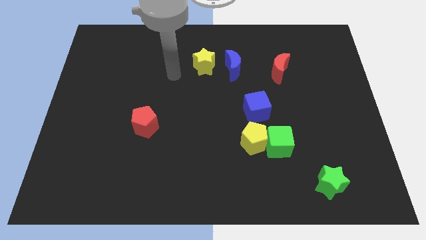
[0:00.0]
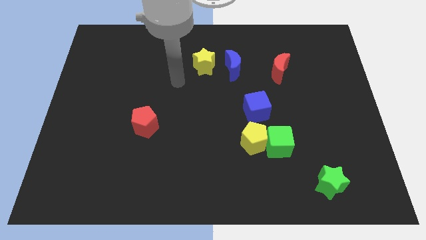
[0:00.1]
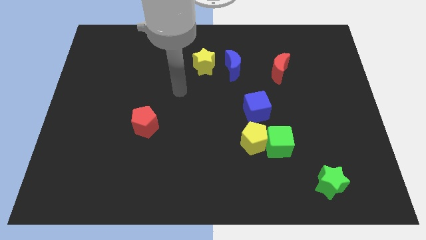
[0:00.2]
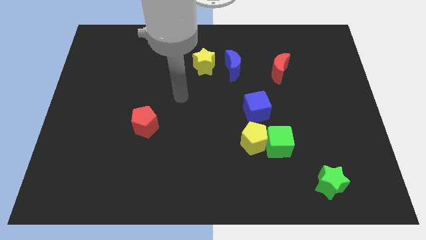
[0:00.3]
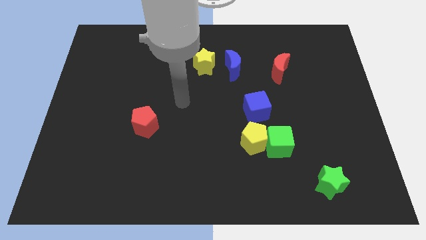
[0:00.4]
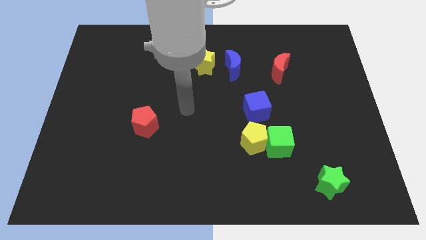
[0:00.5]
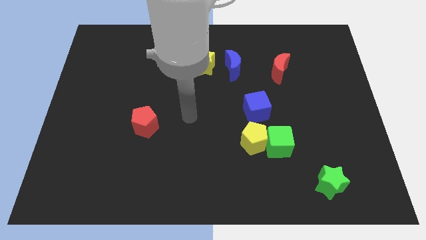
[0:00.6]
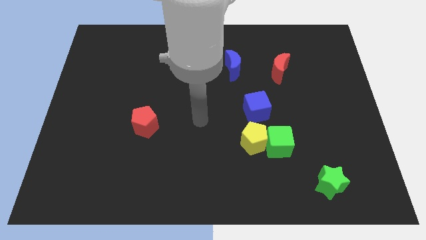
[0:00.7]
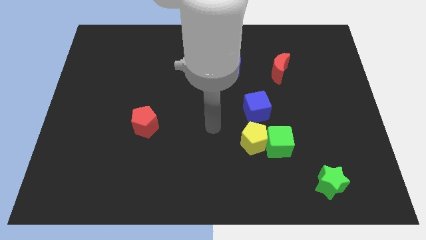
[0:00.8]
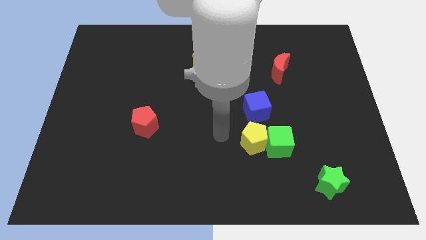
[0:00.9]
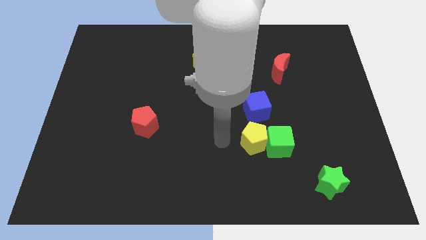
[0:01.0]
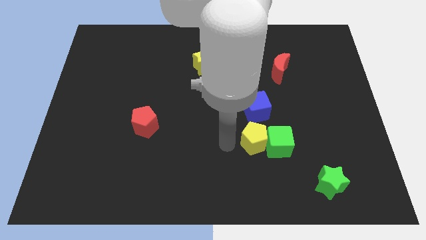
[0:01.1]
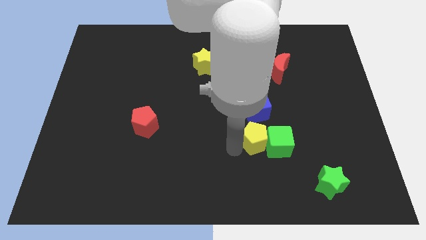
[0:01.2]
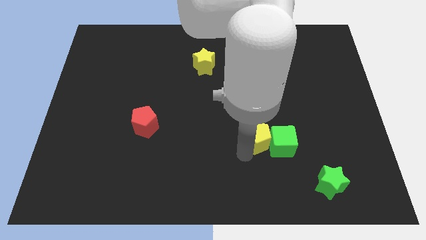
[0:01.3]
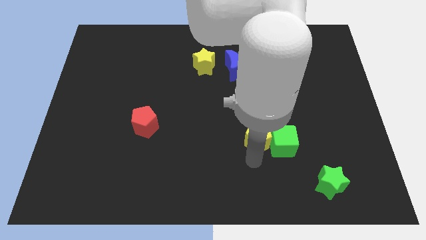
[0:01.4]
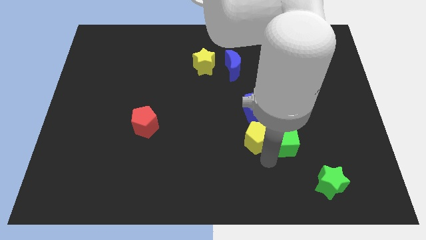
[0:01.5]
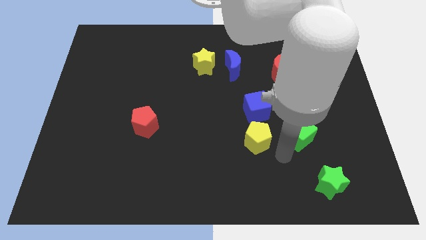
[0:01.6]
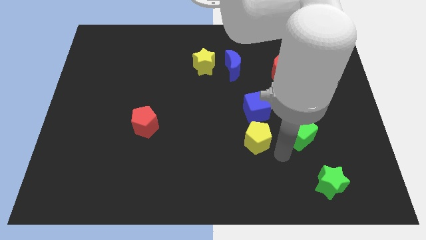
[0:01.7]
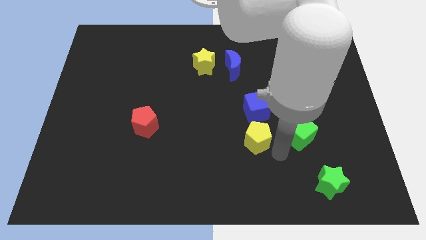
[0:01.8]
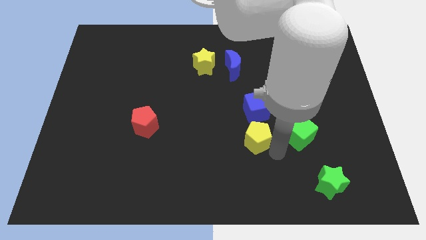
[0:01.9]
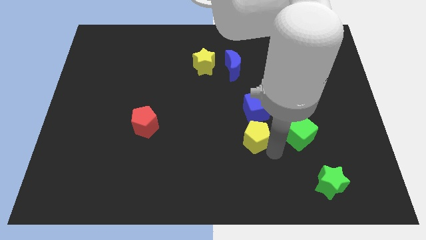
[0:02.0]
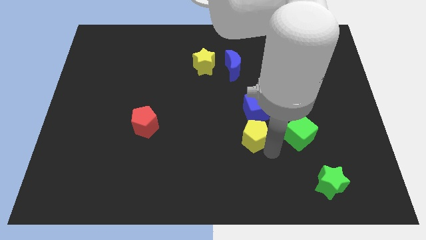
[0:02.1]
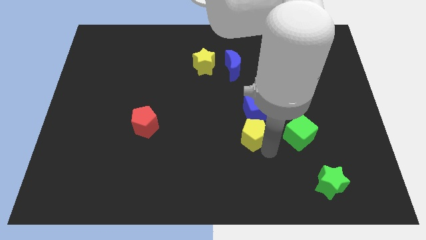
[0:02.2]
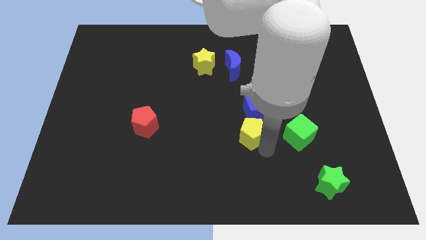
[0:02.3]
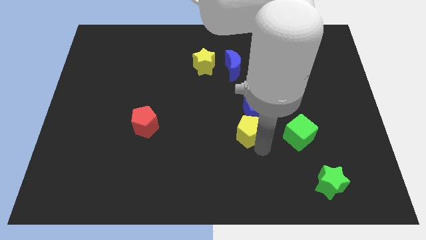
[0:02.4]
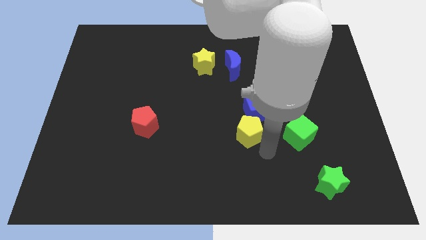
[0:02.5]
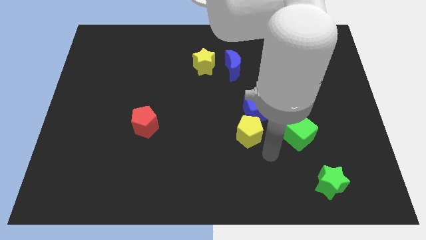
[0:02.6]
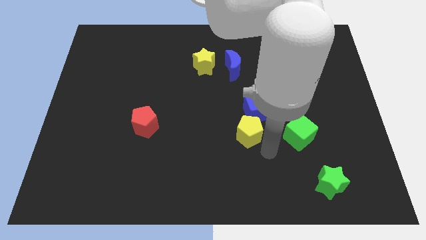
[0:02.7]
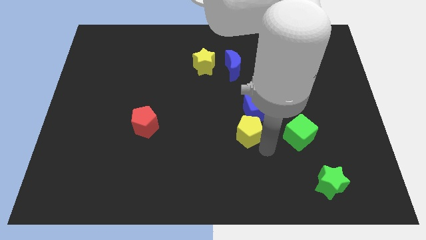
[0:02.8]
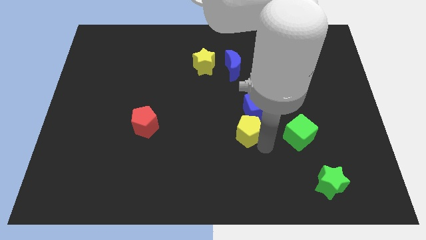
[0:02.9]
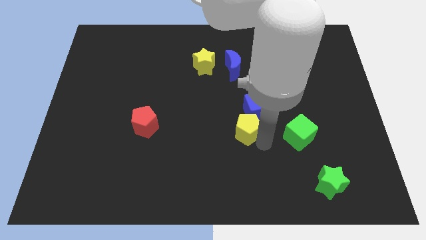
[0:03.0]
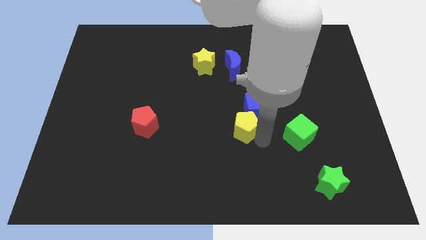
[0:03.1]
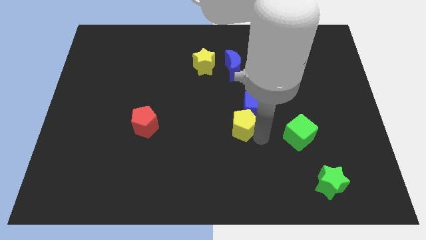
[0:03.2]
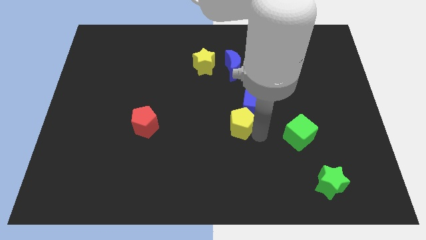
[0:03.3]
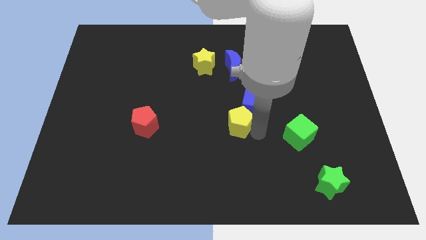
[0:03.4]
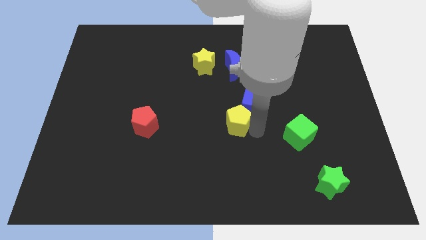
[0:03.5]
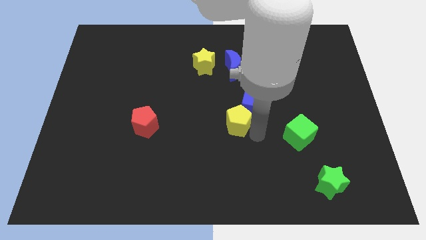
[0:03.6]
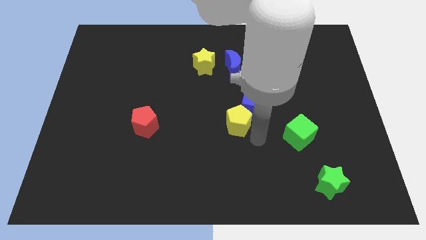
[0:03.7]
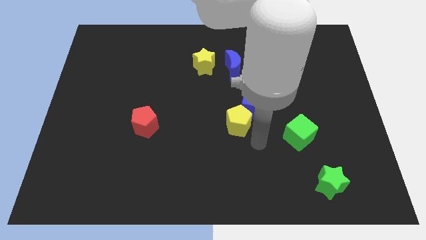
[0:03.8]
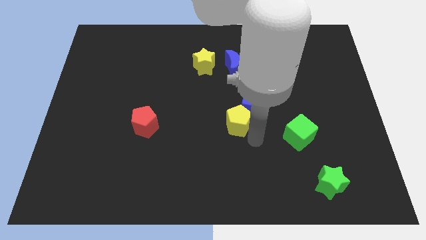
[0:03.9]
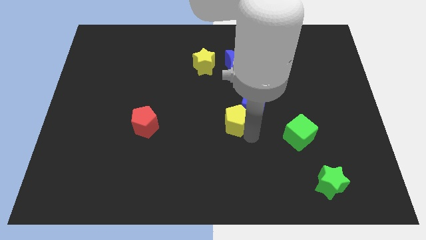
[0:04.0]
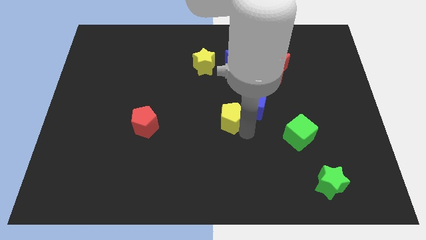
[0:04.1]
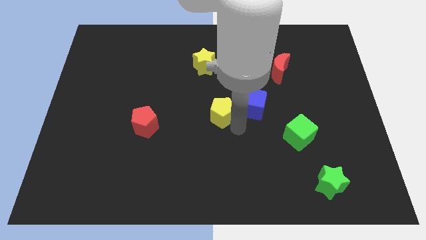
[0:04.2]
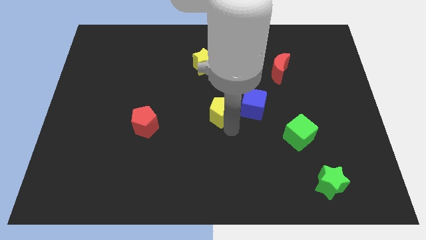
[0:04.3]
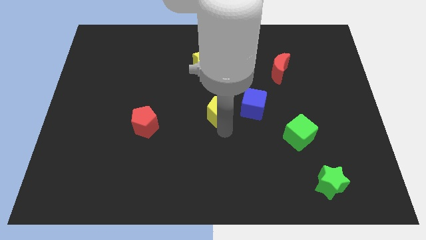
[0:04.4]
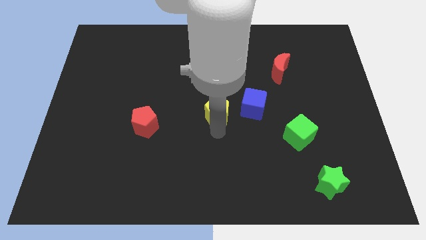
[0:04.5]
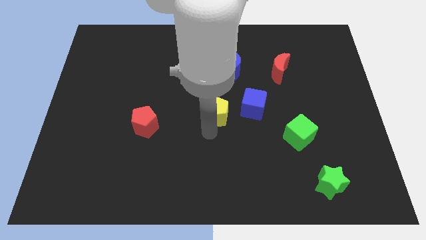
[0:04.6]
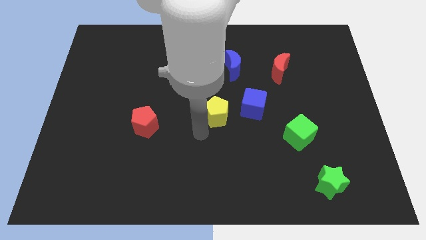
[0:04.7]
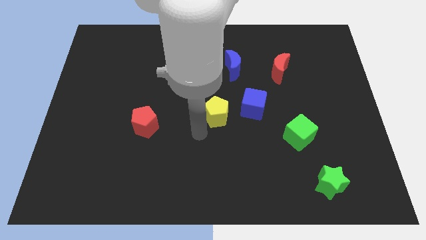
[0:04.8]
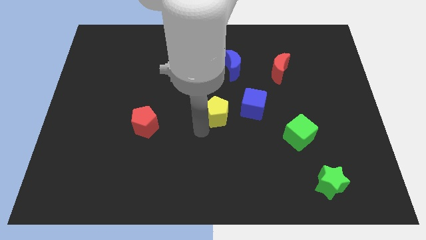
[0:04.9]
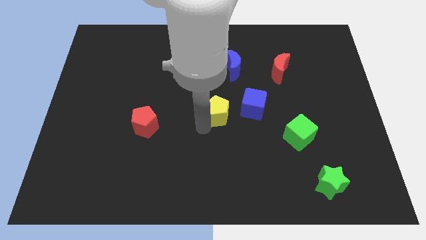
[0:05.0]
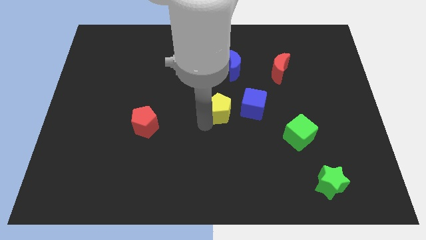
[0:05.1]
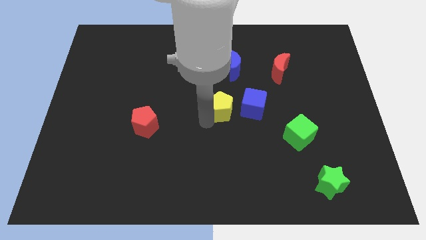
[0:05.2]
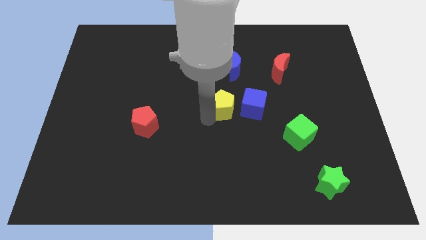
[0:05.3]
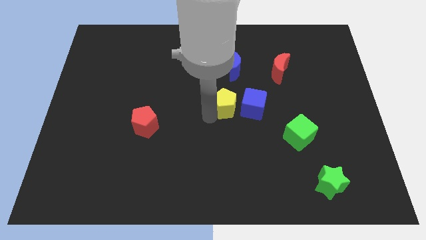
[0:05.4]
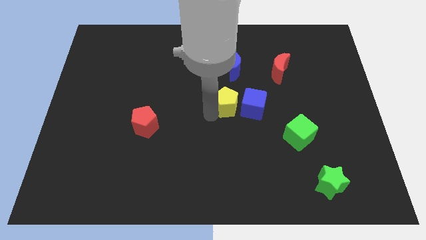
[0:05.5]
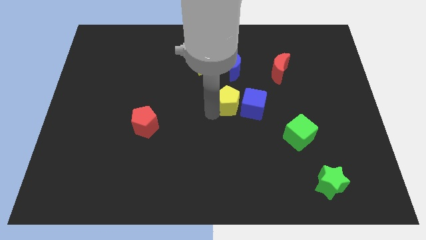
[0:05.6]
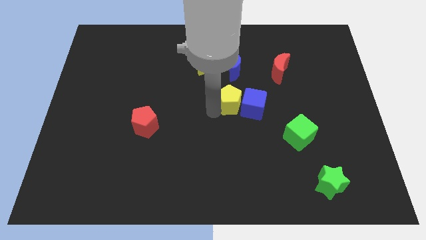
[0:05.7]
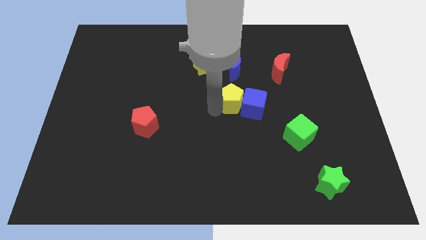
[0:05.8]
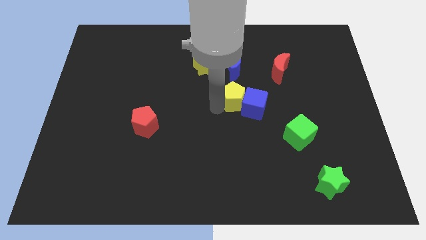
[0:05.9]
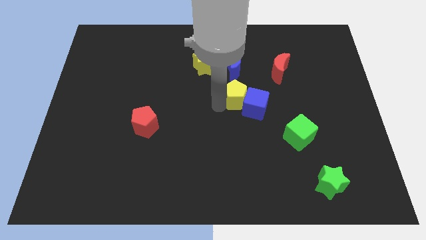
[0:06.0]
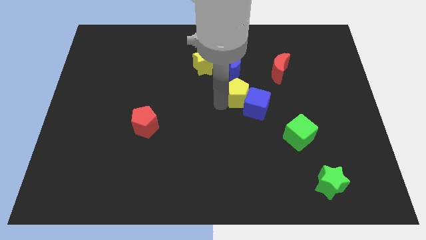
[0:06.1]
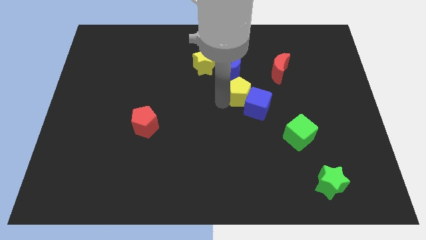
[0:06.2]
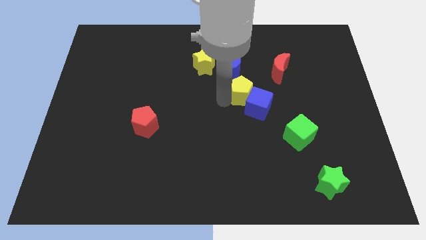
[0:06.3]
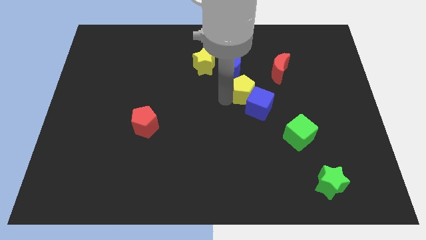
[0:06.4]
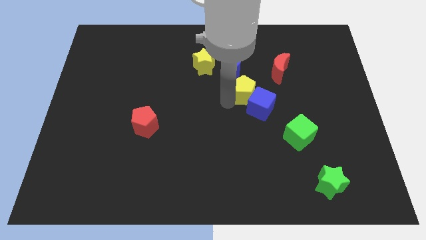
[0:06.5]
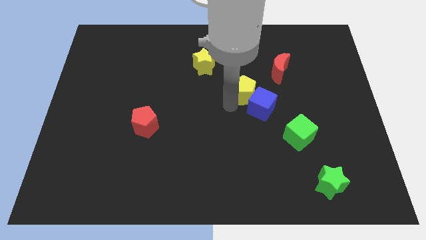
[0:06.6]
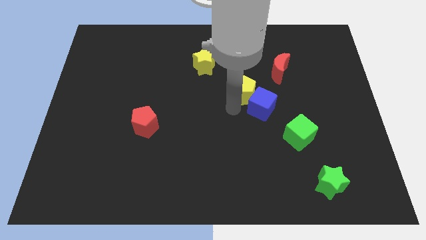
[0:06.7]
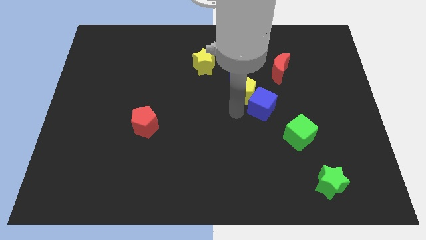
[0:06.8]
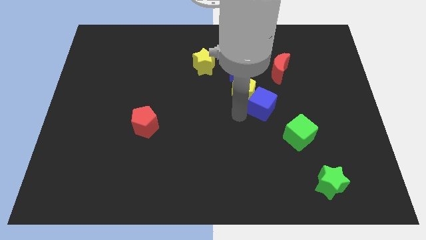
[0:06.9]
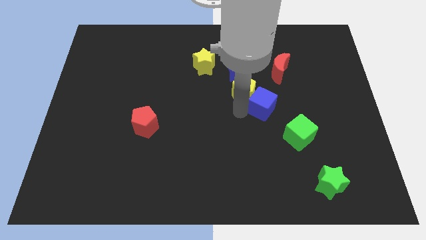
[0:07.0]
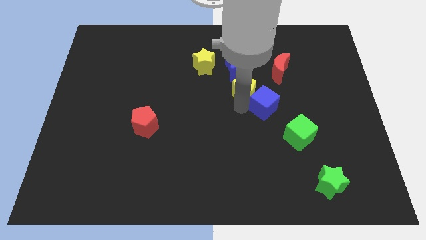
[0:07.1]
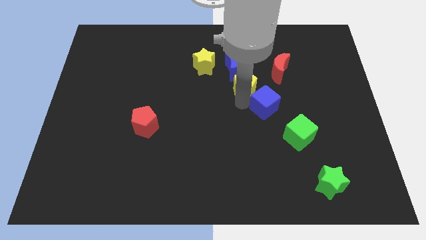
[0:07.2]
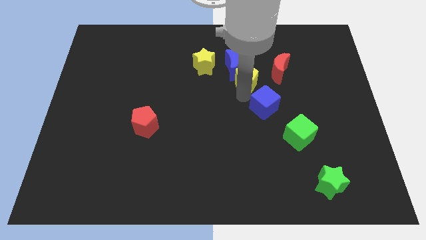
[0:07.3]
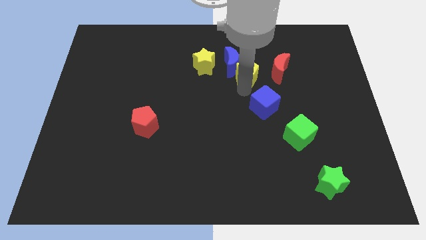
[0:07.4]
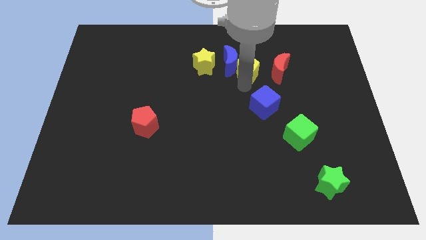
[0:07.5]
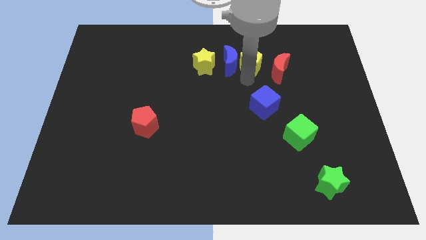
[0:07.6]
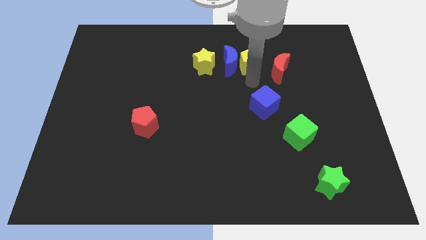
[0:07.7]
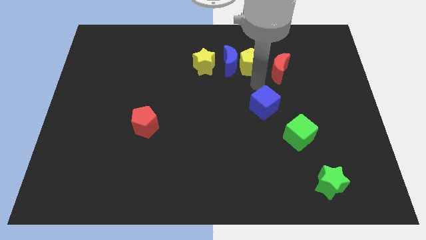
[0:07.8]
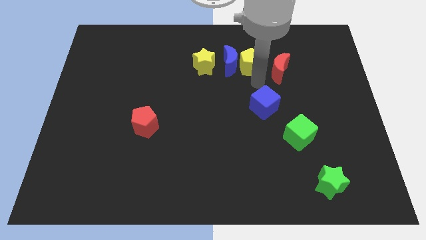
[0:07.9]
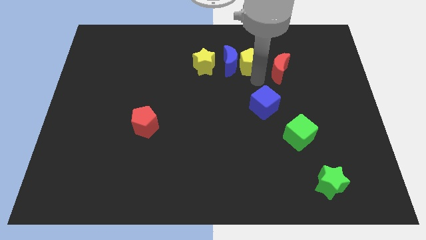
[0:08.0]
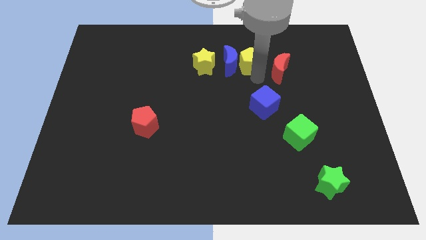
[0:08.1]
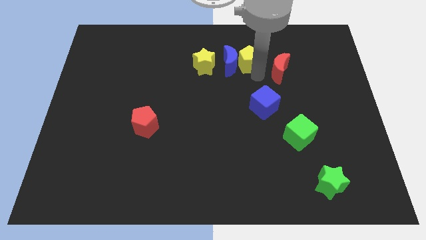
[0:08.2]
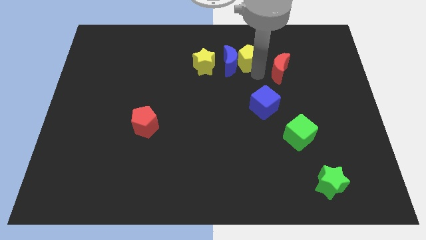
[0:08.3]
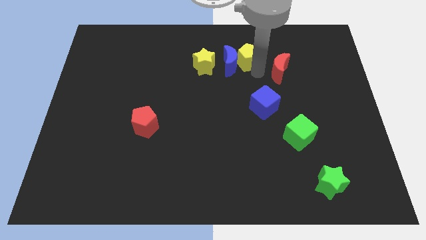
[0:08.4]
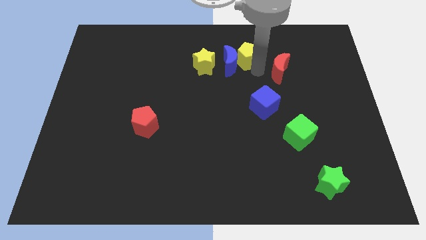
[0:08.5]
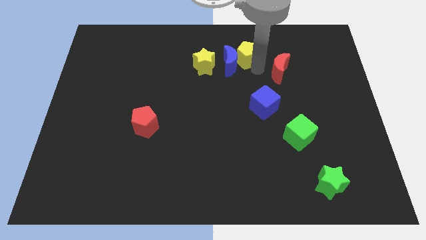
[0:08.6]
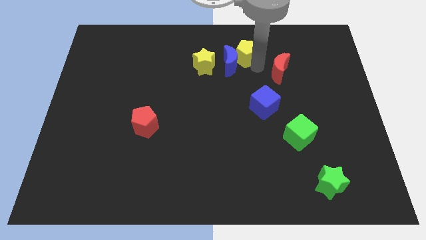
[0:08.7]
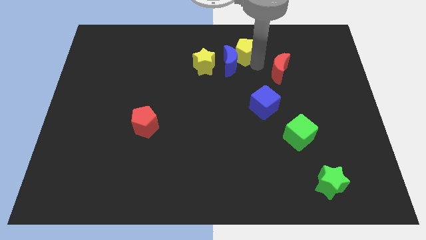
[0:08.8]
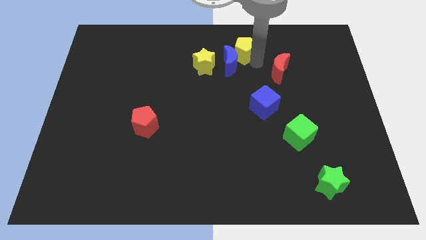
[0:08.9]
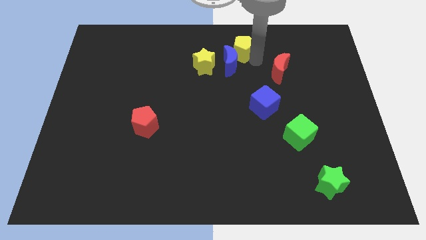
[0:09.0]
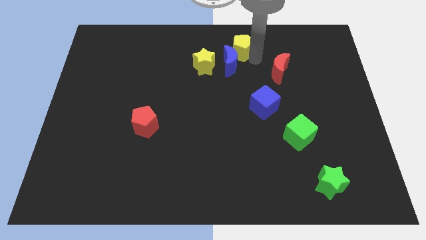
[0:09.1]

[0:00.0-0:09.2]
slide the yellow pentagon to the top side
